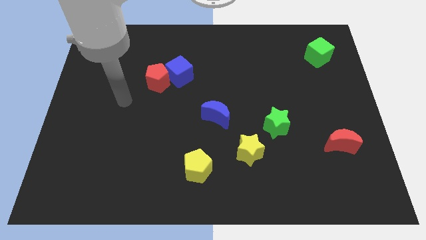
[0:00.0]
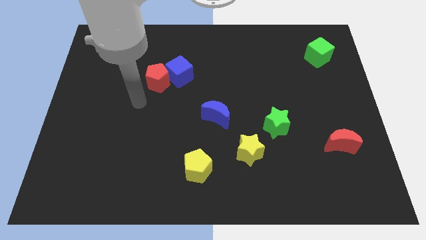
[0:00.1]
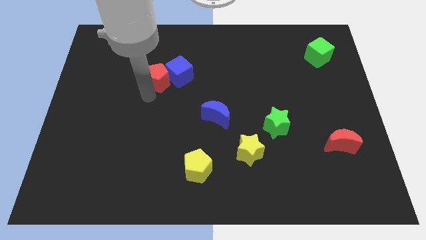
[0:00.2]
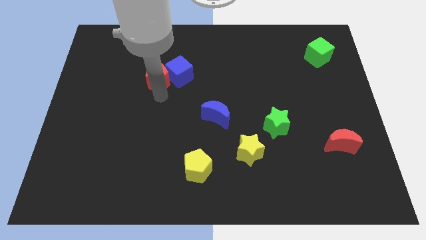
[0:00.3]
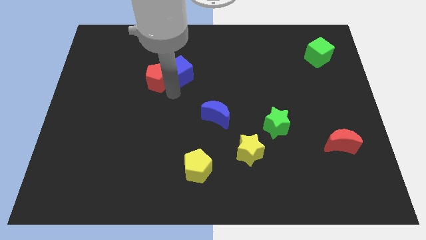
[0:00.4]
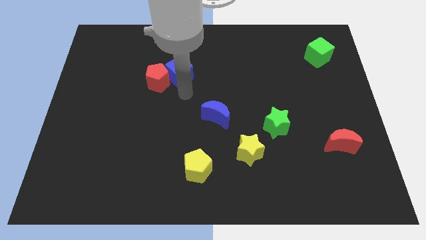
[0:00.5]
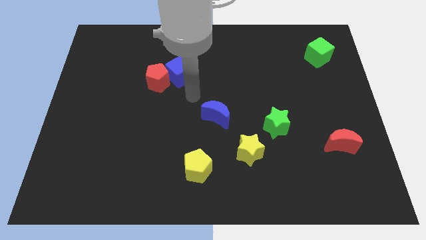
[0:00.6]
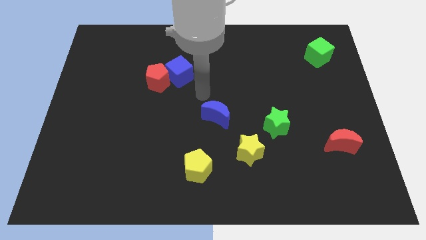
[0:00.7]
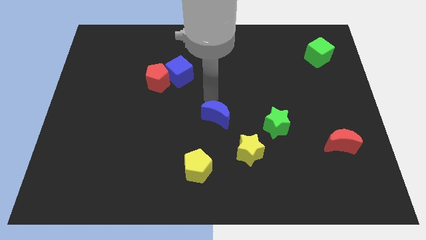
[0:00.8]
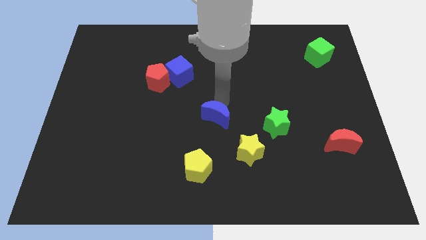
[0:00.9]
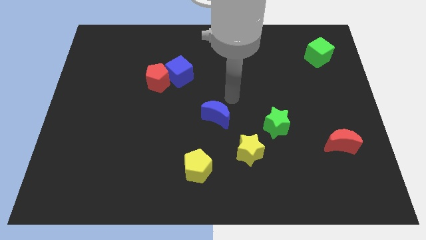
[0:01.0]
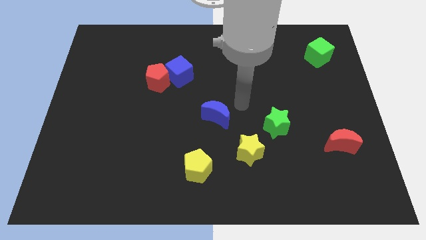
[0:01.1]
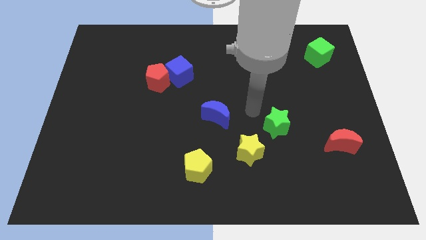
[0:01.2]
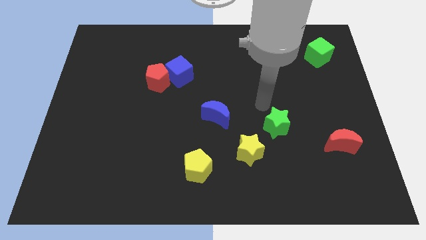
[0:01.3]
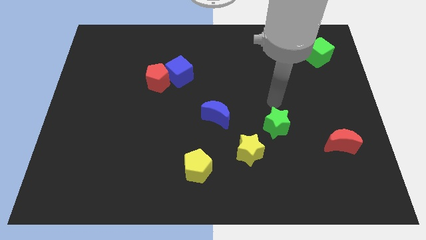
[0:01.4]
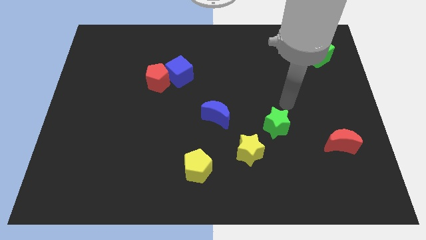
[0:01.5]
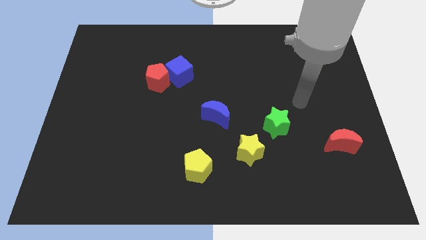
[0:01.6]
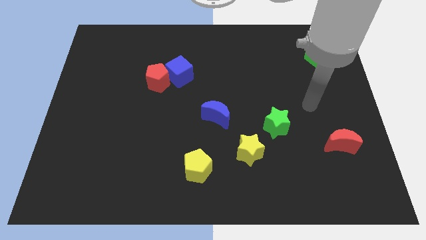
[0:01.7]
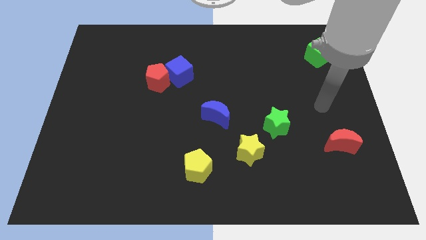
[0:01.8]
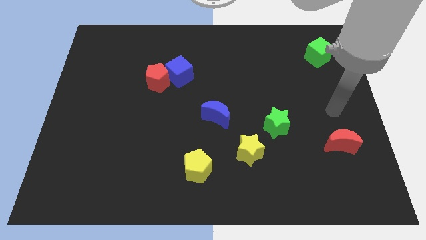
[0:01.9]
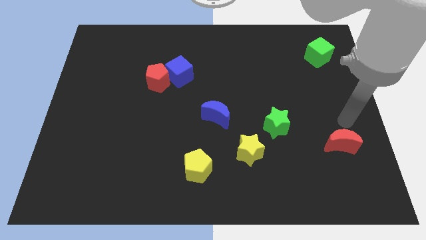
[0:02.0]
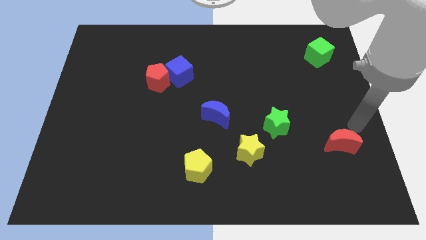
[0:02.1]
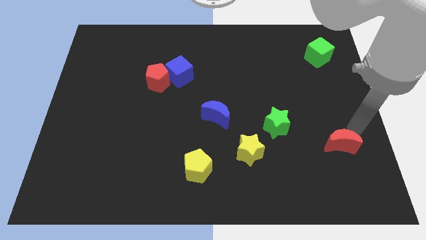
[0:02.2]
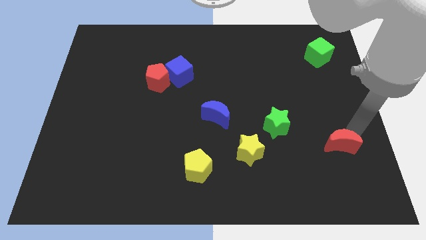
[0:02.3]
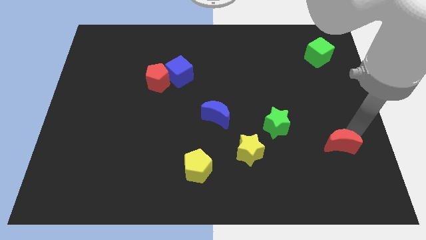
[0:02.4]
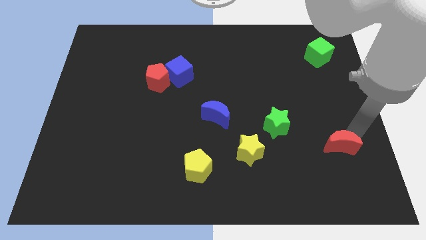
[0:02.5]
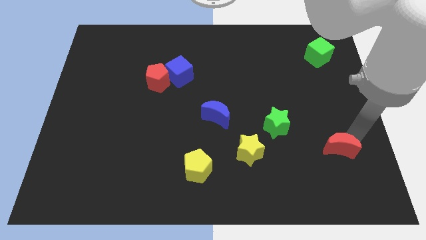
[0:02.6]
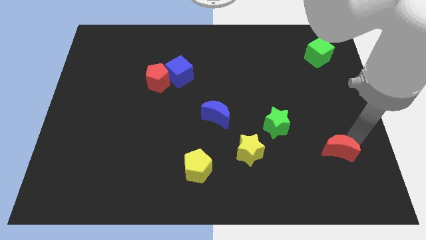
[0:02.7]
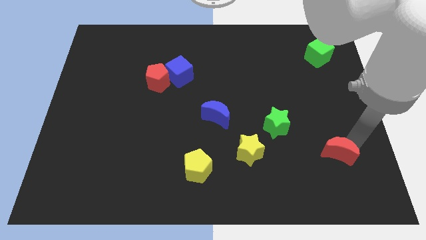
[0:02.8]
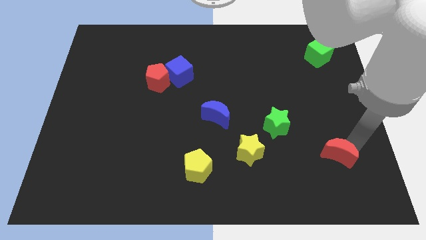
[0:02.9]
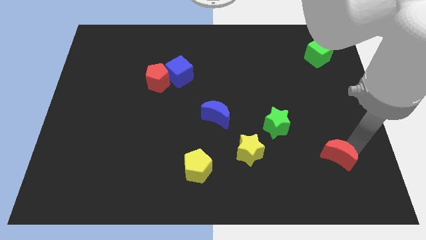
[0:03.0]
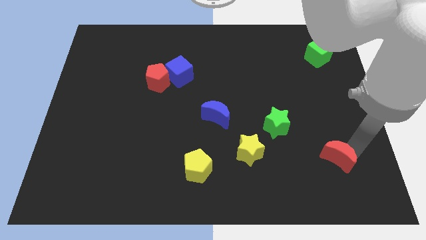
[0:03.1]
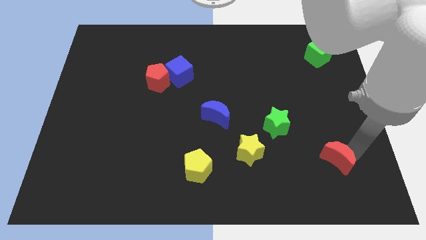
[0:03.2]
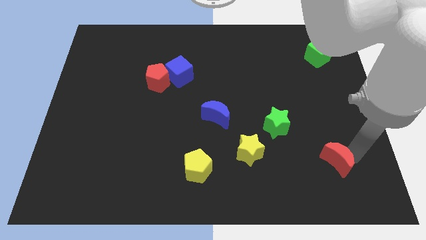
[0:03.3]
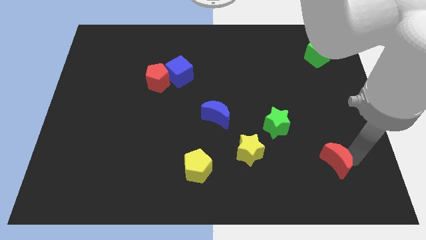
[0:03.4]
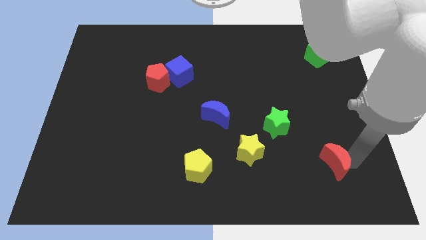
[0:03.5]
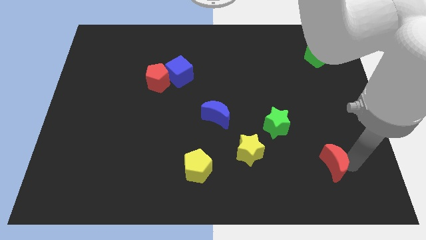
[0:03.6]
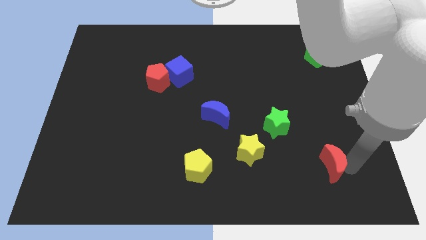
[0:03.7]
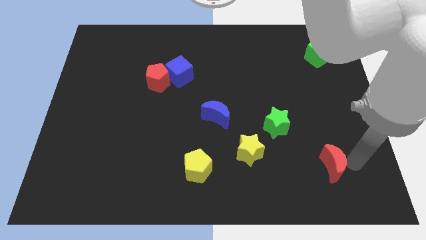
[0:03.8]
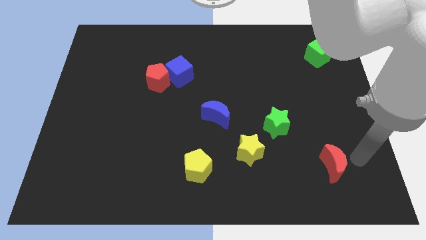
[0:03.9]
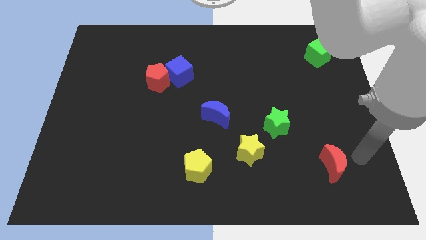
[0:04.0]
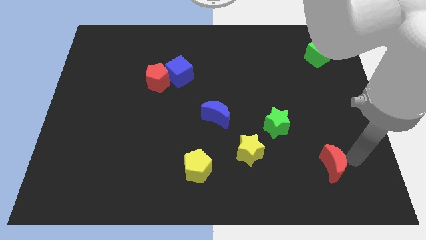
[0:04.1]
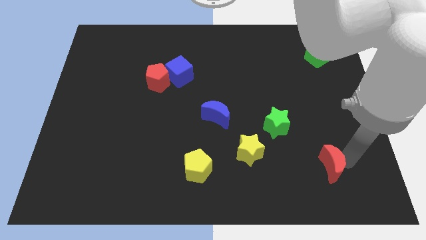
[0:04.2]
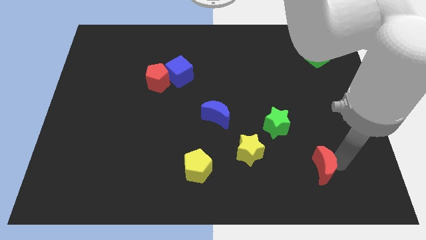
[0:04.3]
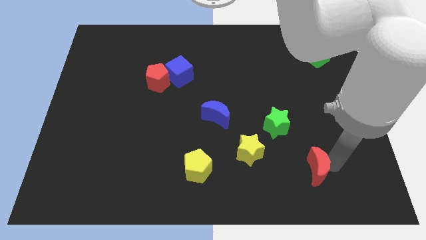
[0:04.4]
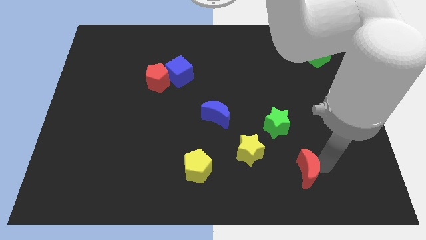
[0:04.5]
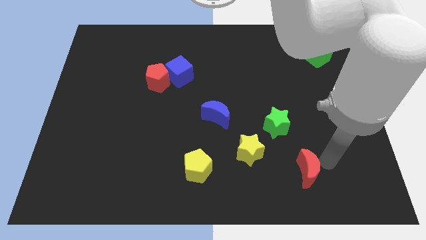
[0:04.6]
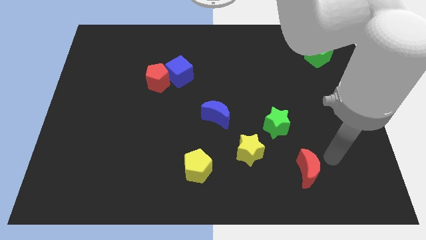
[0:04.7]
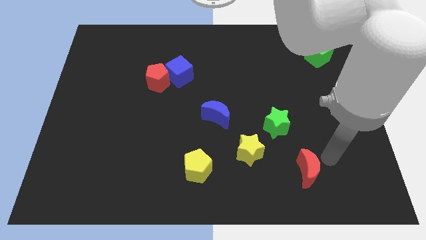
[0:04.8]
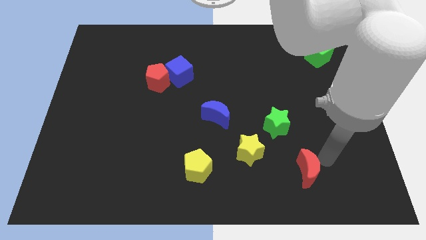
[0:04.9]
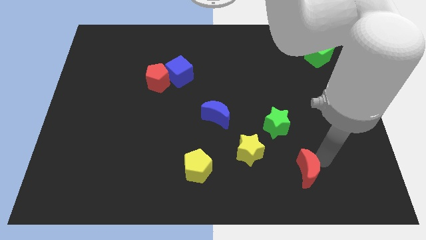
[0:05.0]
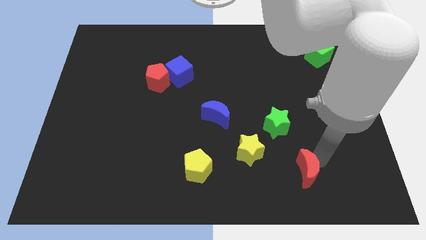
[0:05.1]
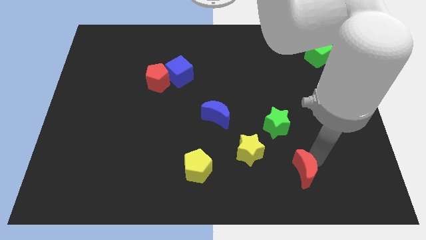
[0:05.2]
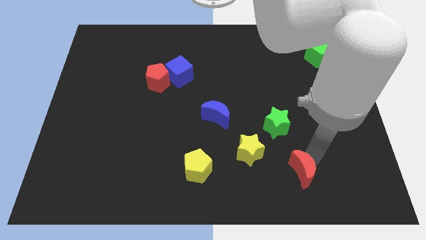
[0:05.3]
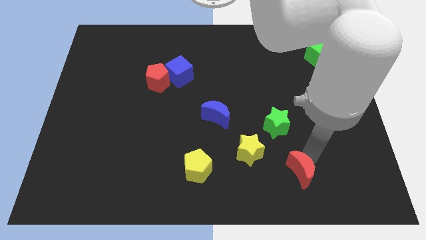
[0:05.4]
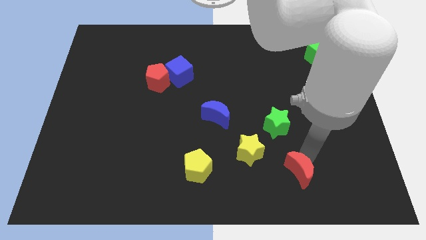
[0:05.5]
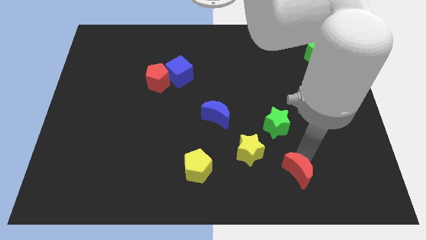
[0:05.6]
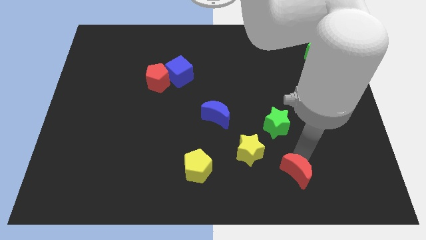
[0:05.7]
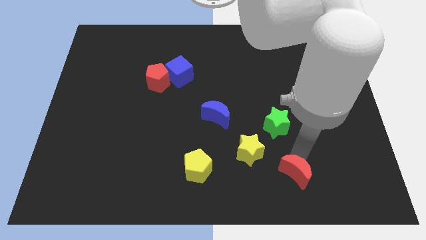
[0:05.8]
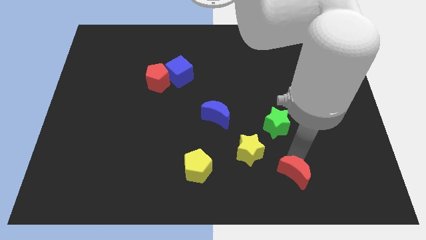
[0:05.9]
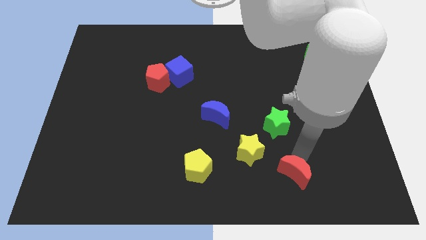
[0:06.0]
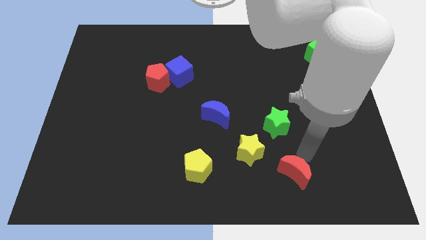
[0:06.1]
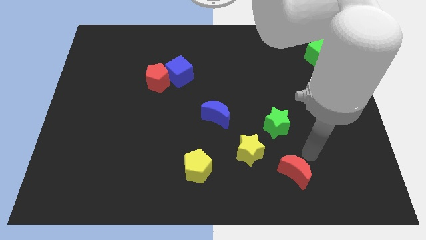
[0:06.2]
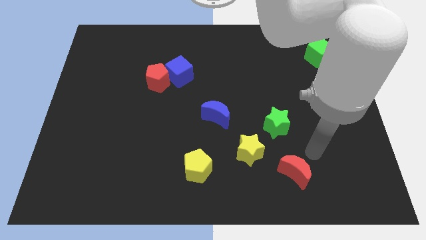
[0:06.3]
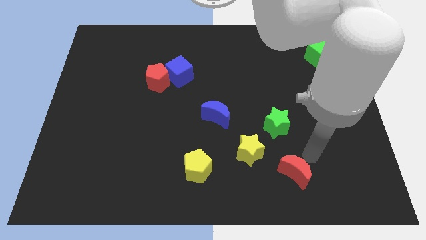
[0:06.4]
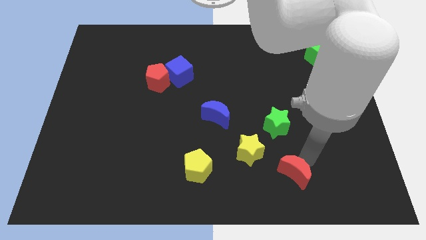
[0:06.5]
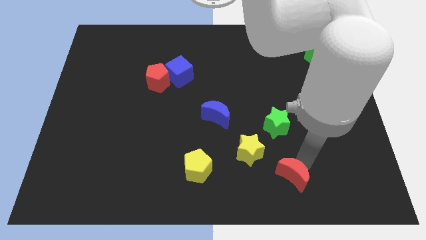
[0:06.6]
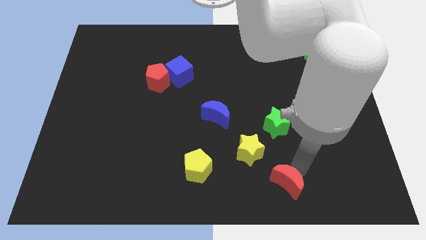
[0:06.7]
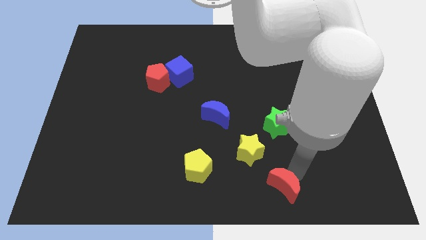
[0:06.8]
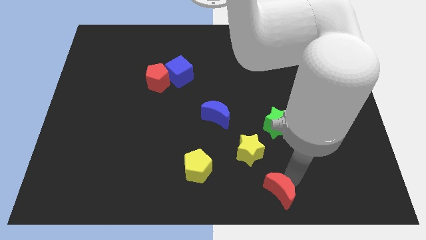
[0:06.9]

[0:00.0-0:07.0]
move the red moon to the bottom
